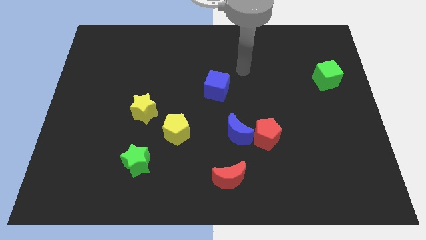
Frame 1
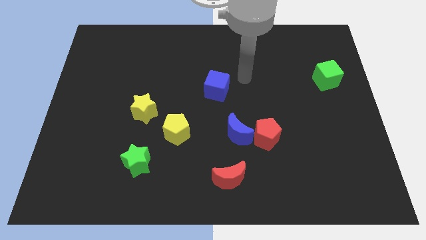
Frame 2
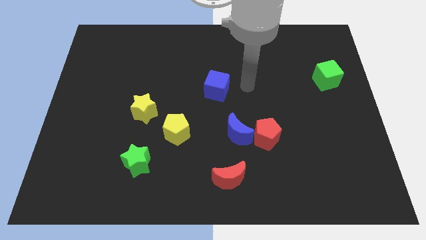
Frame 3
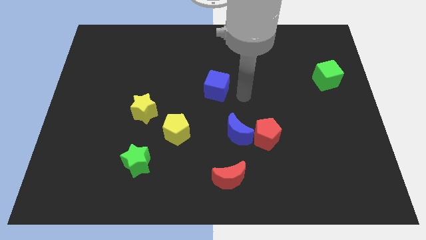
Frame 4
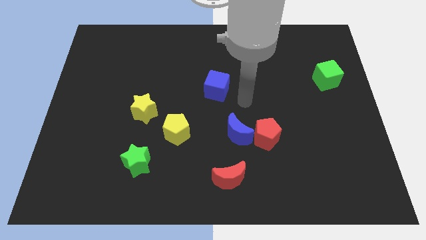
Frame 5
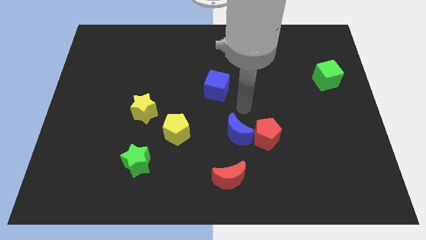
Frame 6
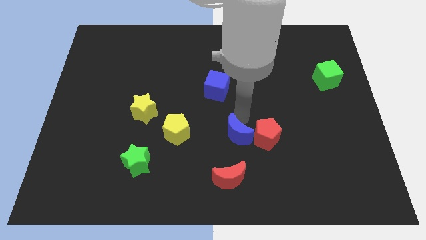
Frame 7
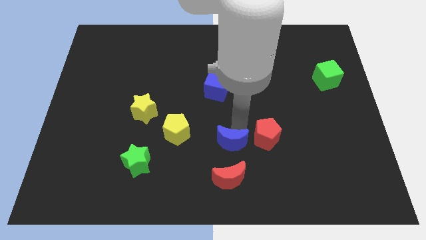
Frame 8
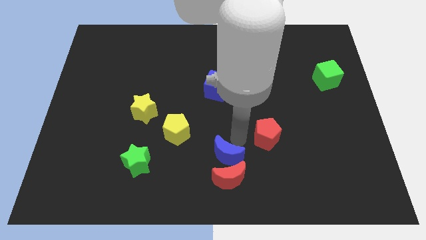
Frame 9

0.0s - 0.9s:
move the red pentagon away from the blue moon

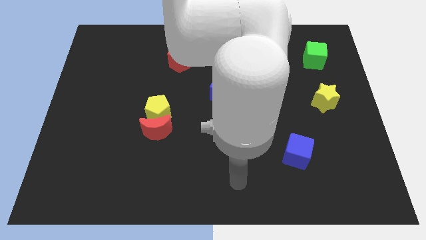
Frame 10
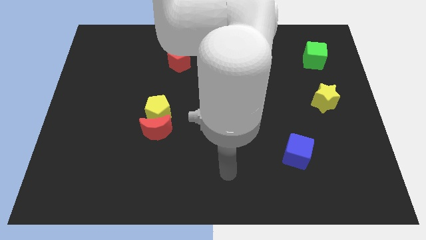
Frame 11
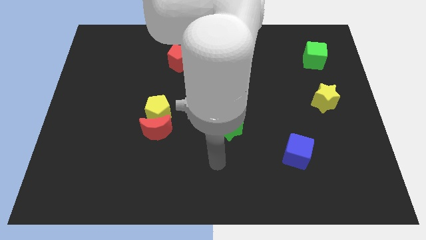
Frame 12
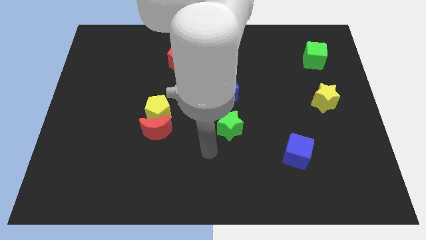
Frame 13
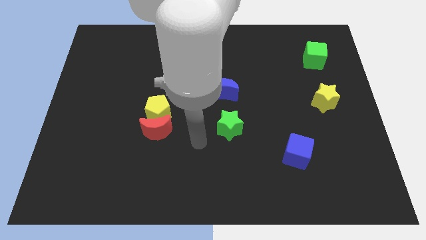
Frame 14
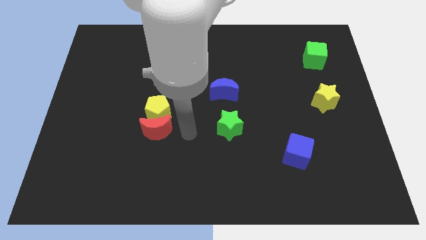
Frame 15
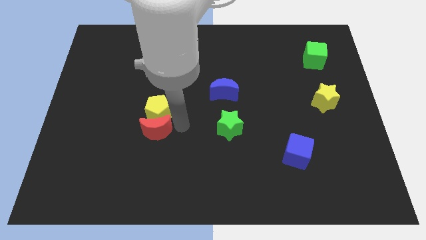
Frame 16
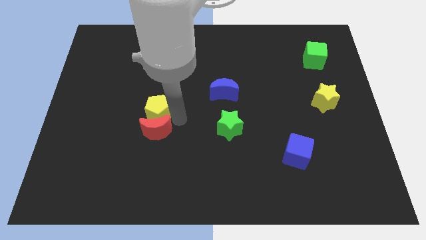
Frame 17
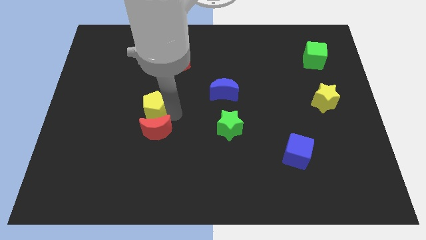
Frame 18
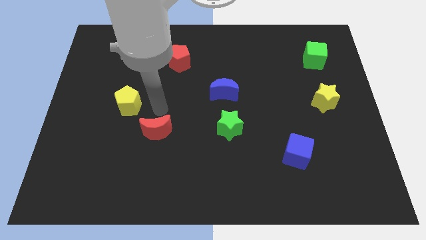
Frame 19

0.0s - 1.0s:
move the red moon away from the yellow pentagon

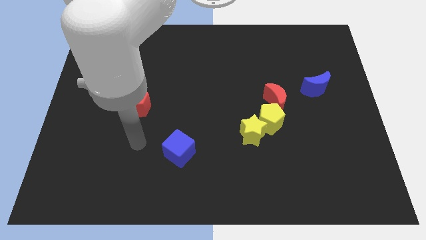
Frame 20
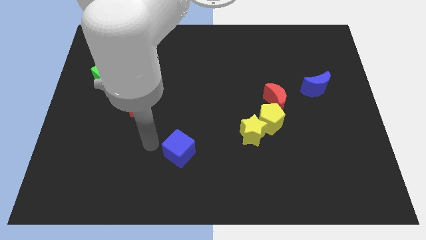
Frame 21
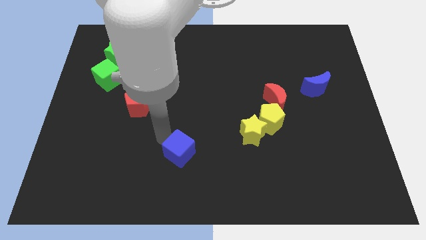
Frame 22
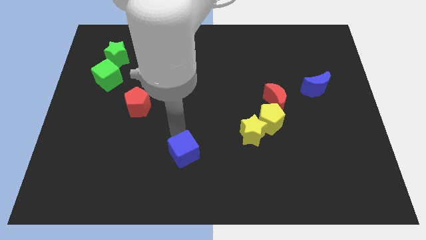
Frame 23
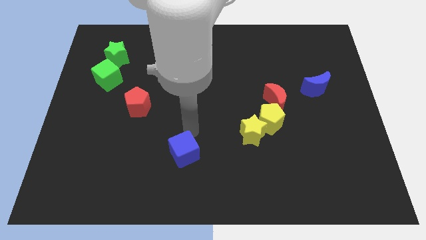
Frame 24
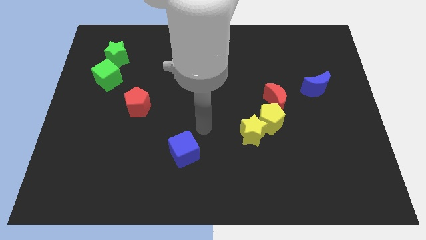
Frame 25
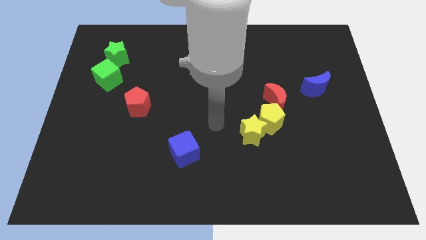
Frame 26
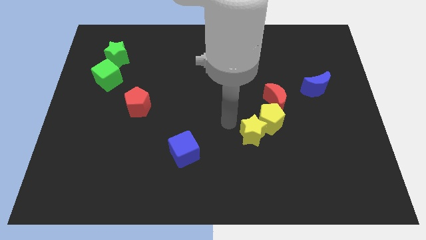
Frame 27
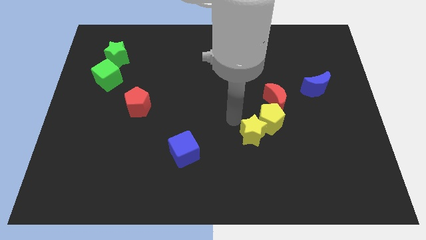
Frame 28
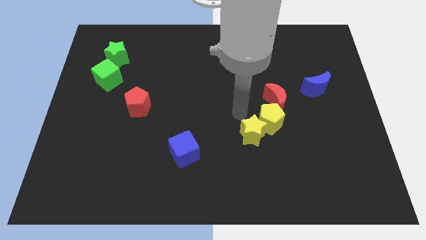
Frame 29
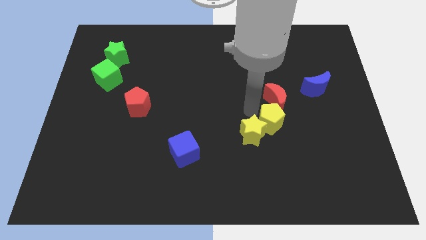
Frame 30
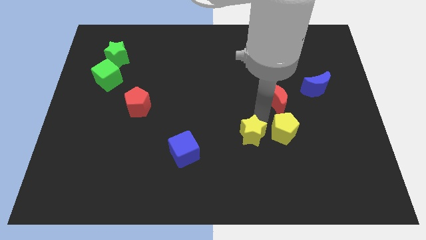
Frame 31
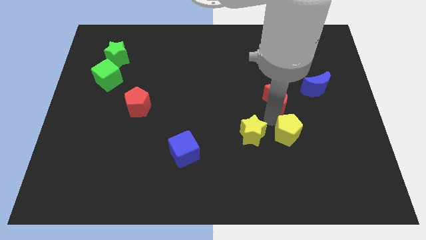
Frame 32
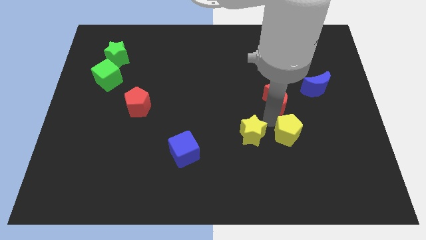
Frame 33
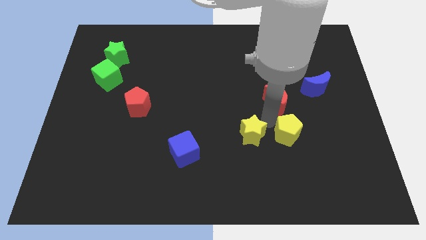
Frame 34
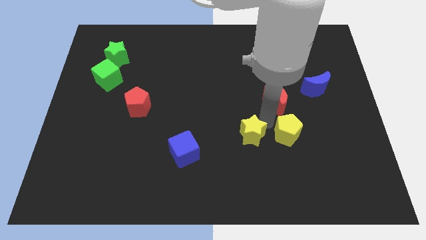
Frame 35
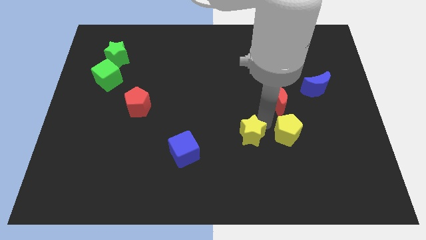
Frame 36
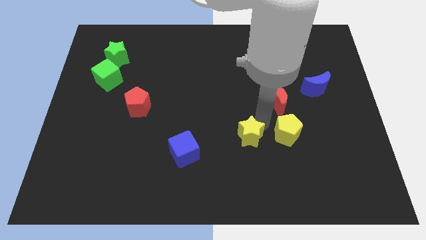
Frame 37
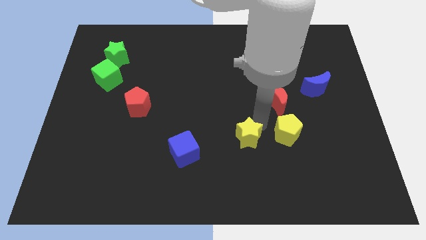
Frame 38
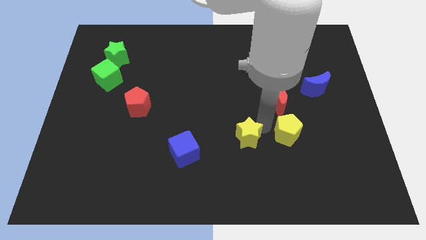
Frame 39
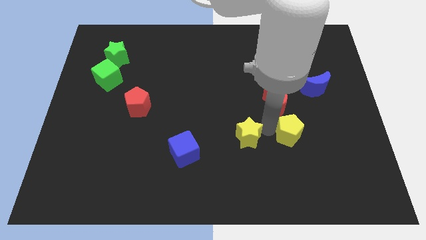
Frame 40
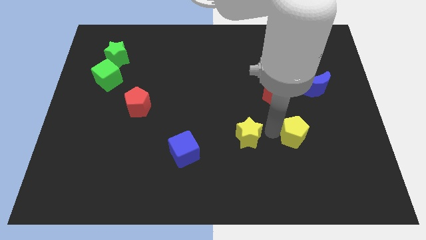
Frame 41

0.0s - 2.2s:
separate the yellow star from the yellow pentagon

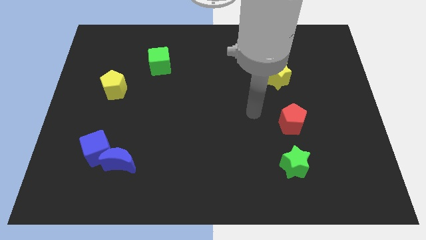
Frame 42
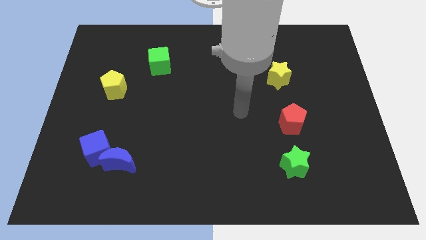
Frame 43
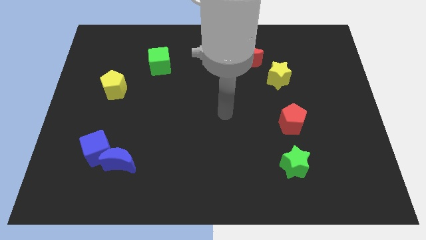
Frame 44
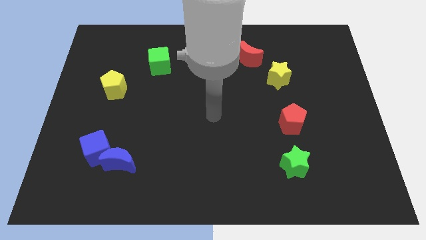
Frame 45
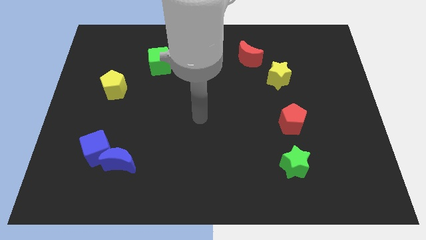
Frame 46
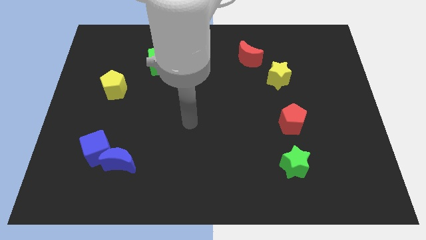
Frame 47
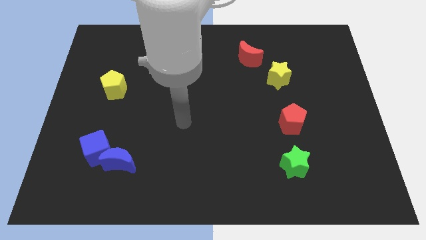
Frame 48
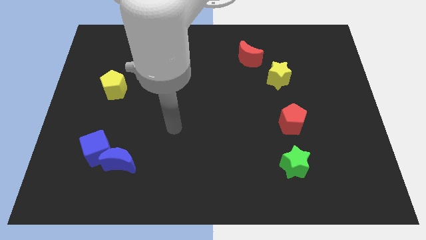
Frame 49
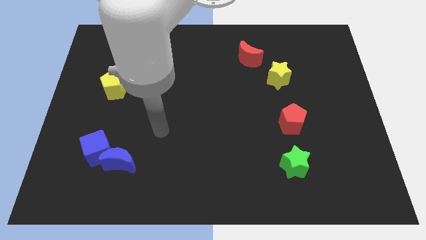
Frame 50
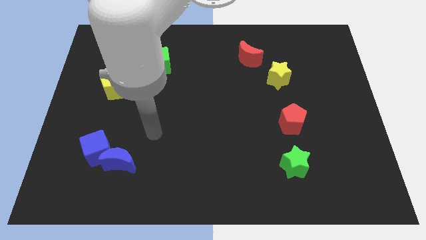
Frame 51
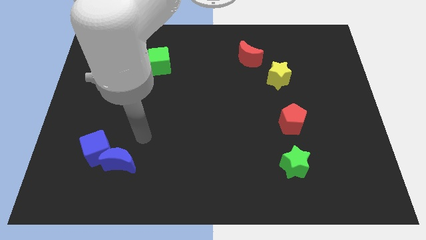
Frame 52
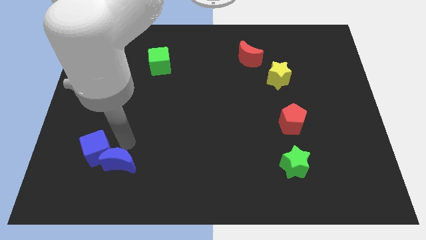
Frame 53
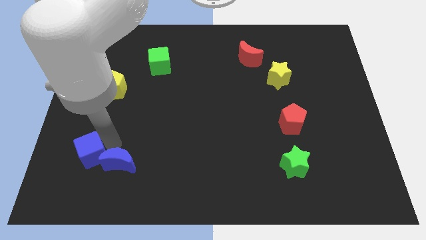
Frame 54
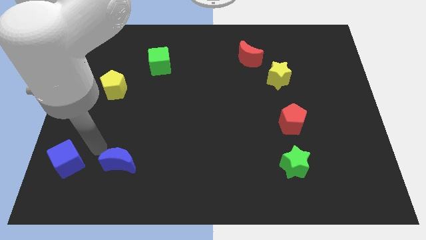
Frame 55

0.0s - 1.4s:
pull the blue moon apart from the blue cube

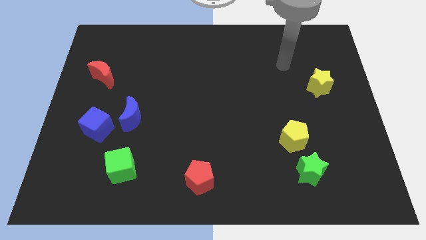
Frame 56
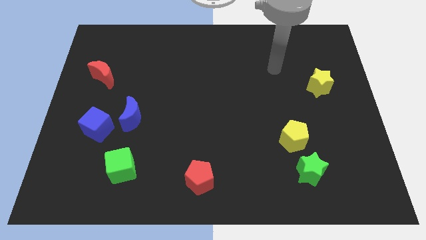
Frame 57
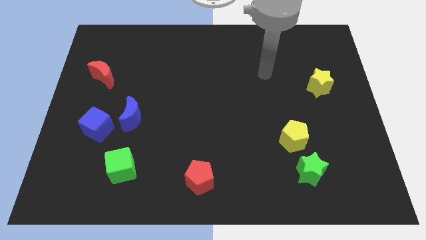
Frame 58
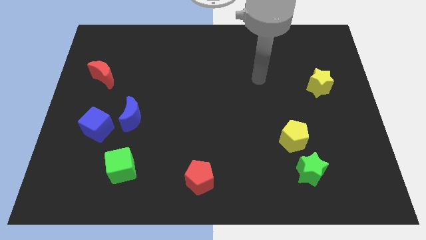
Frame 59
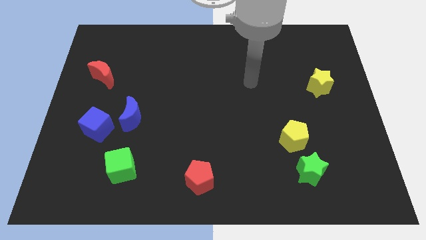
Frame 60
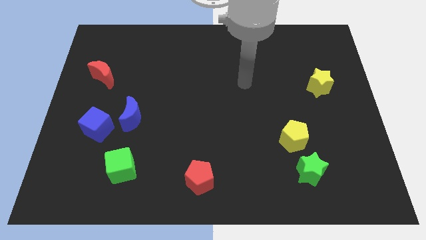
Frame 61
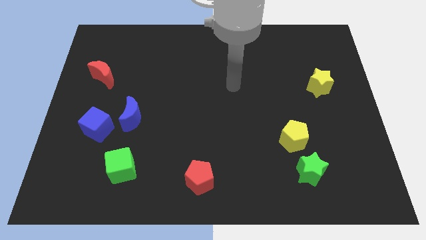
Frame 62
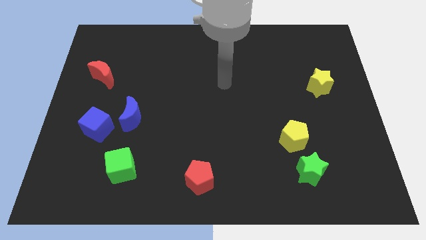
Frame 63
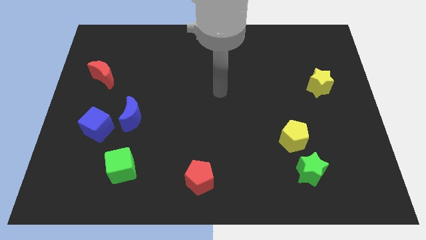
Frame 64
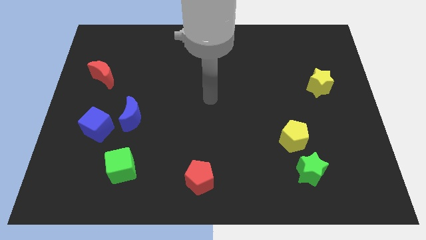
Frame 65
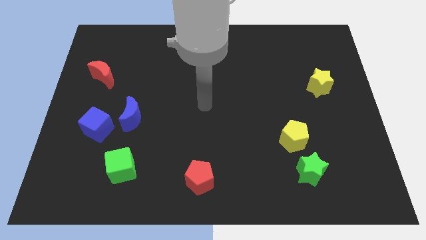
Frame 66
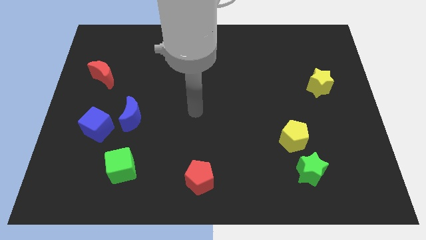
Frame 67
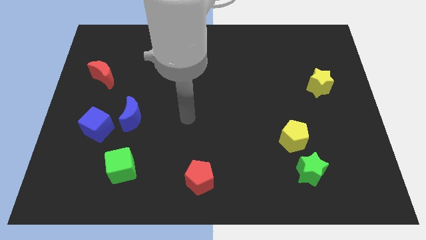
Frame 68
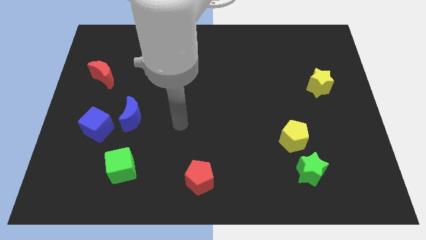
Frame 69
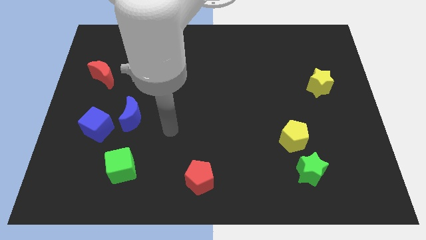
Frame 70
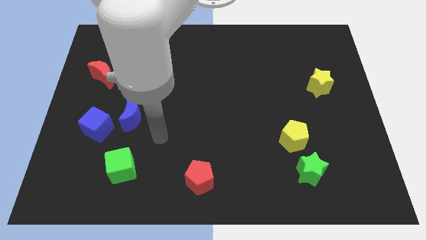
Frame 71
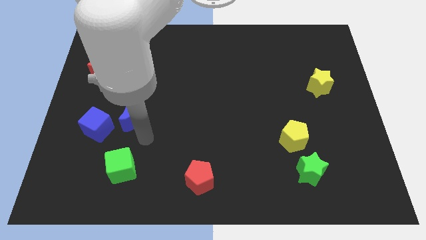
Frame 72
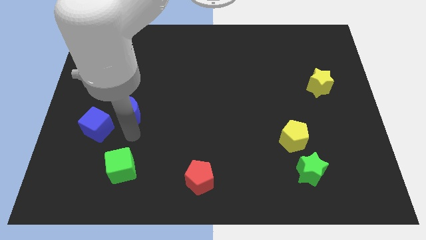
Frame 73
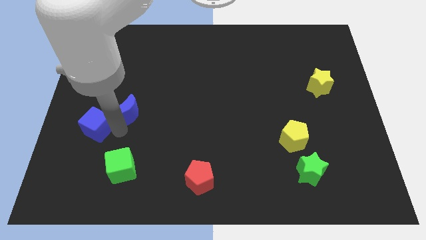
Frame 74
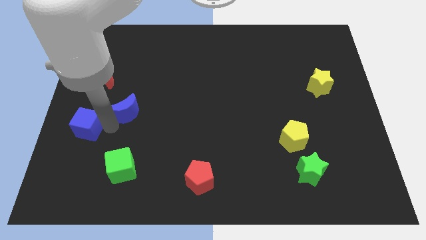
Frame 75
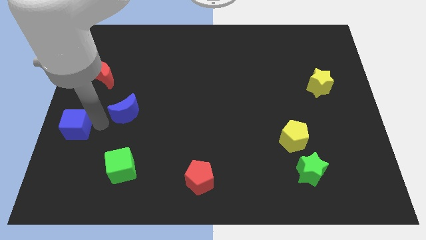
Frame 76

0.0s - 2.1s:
move the blue moon away from the blue cube

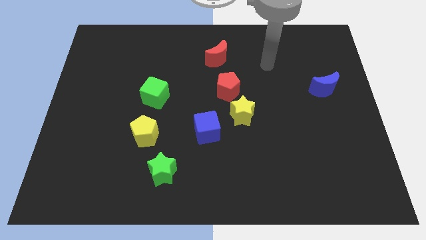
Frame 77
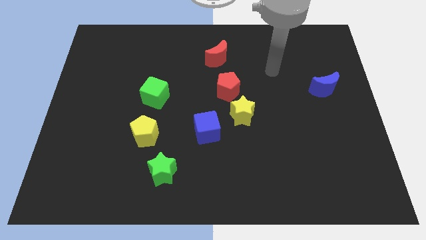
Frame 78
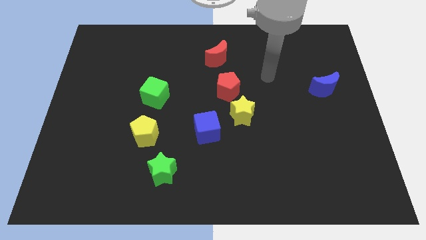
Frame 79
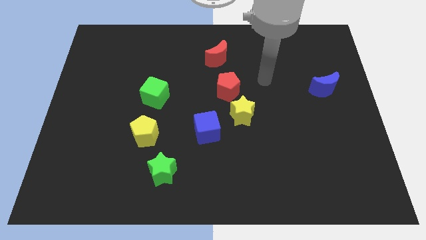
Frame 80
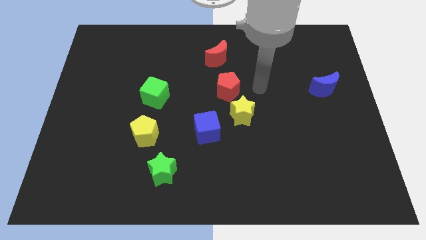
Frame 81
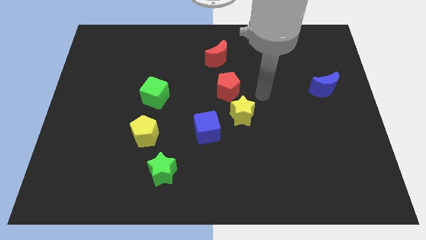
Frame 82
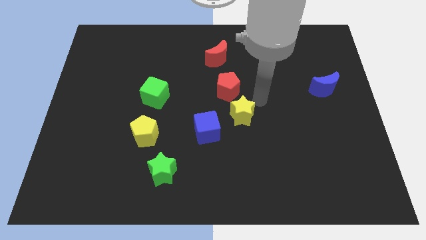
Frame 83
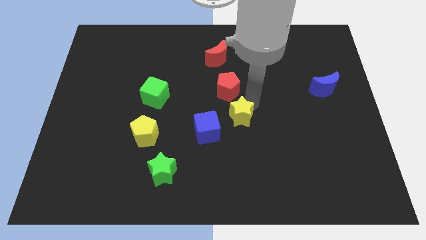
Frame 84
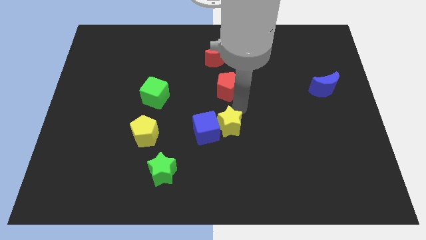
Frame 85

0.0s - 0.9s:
pull the red pentagon apart from the yellow star

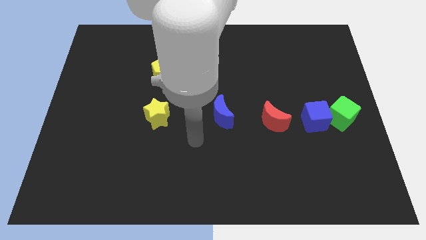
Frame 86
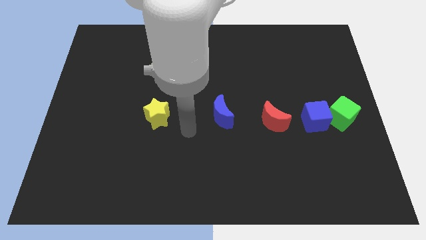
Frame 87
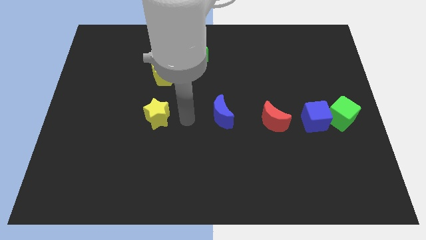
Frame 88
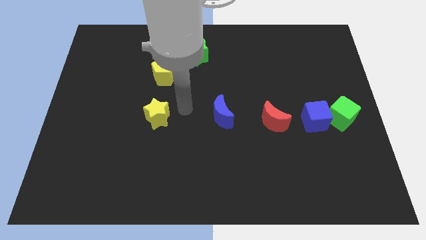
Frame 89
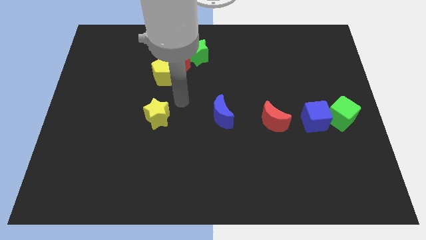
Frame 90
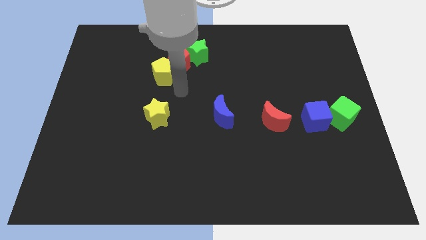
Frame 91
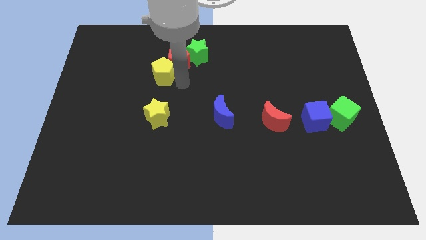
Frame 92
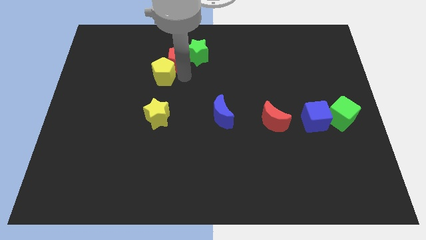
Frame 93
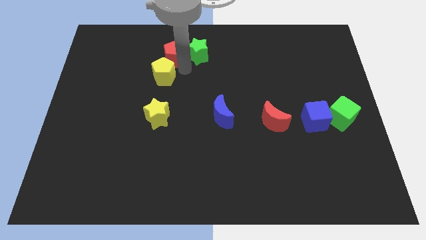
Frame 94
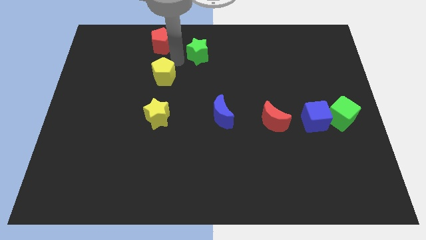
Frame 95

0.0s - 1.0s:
move the yellow pentagon away from the red pentagon
